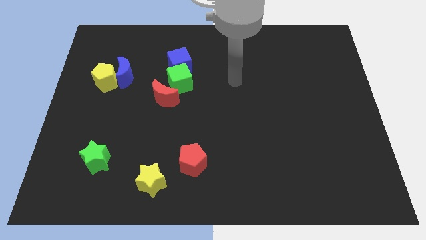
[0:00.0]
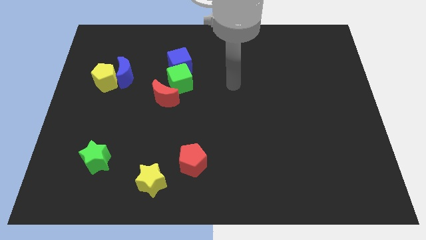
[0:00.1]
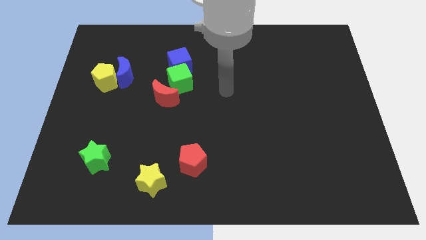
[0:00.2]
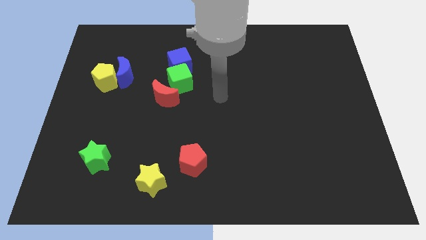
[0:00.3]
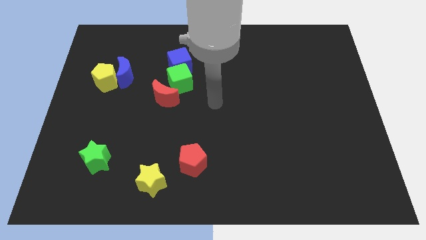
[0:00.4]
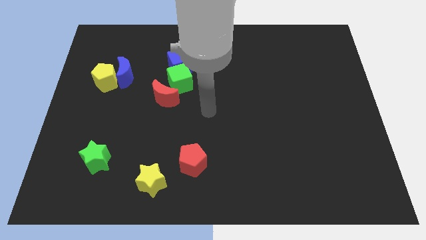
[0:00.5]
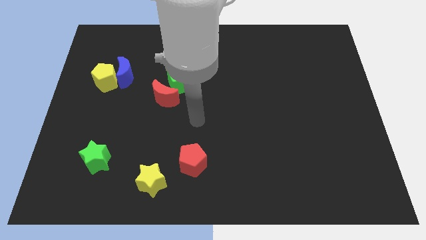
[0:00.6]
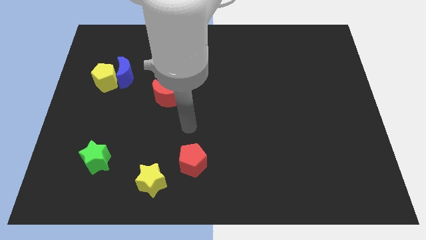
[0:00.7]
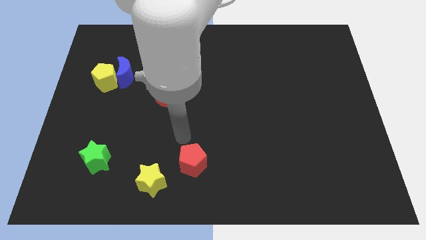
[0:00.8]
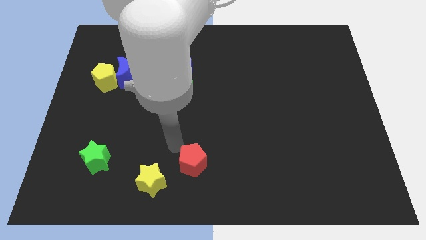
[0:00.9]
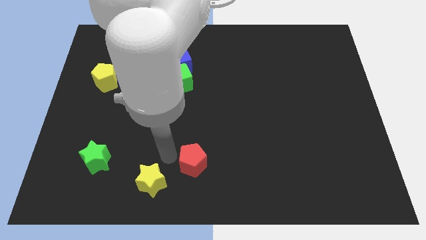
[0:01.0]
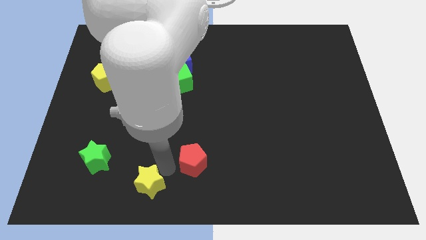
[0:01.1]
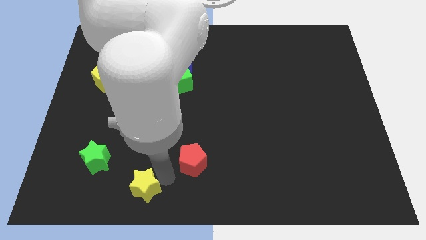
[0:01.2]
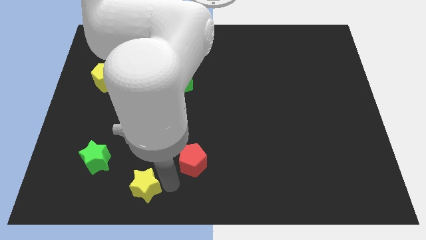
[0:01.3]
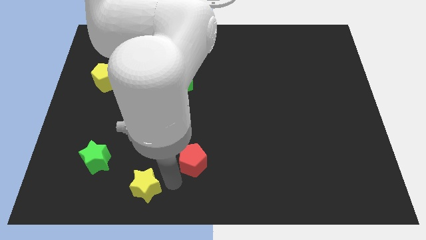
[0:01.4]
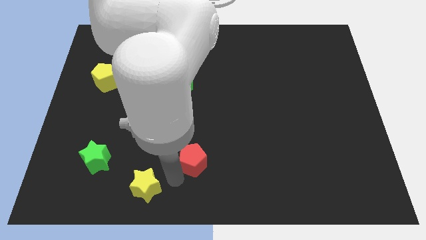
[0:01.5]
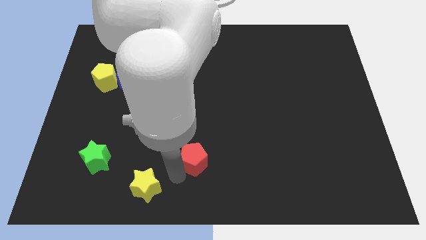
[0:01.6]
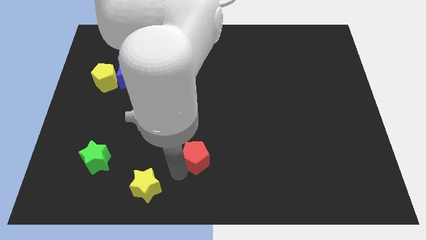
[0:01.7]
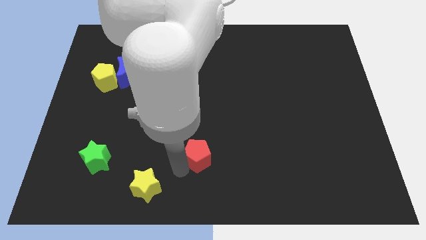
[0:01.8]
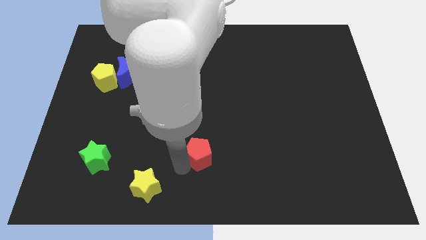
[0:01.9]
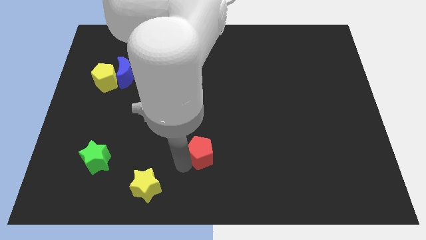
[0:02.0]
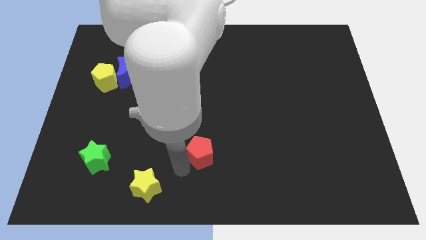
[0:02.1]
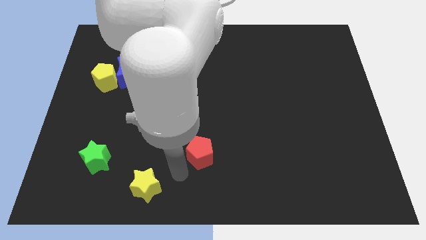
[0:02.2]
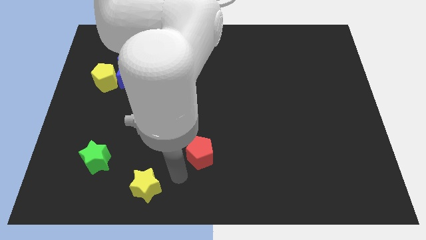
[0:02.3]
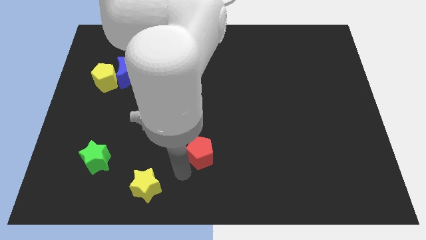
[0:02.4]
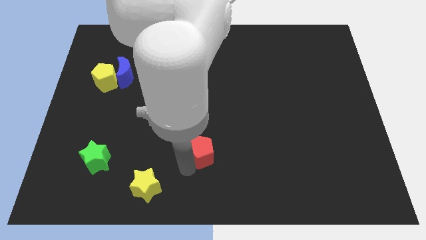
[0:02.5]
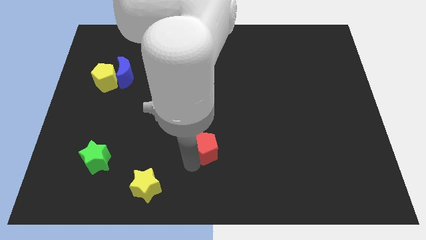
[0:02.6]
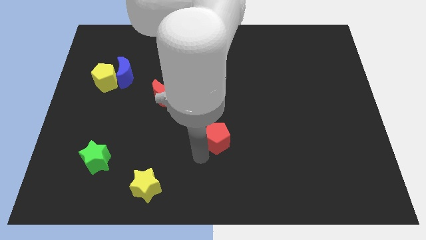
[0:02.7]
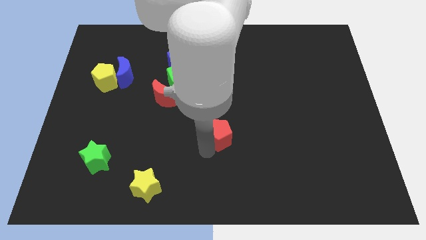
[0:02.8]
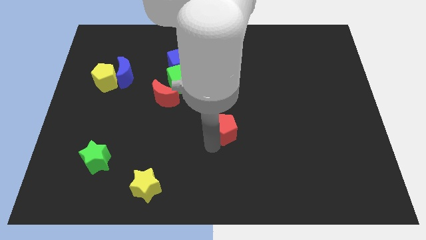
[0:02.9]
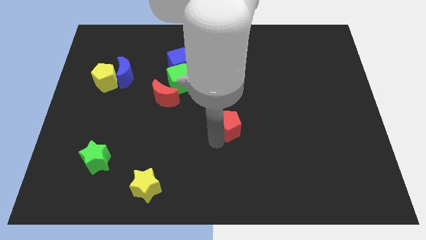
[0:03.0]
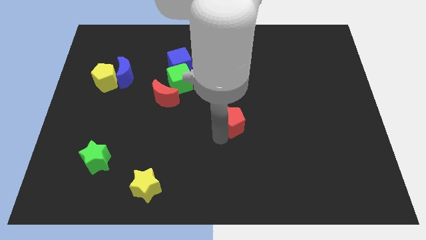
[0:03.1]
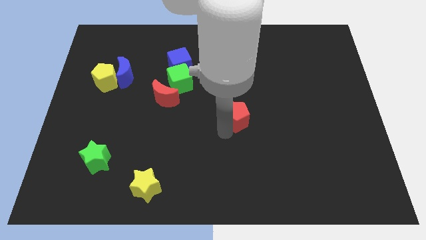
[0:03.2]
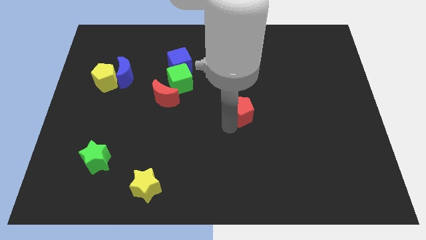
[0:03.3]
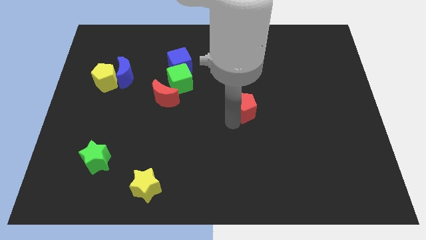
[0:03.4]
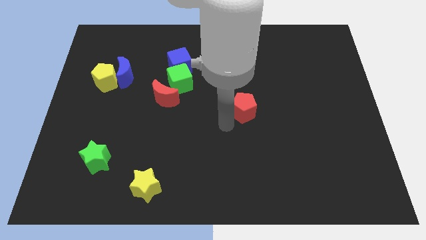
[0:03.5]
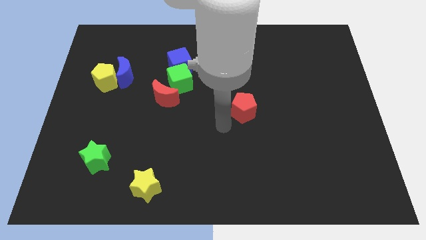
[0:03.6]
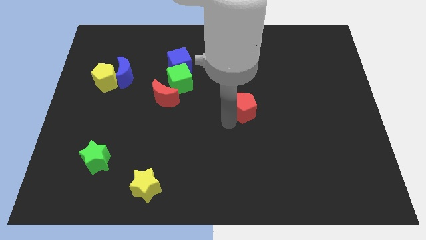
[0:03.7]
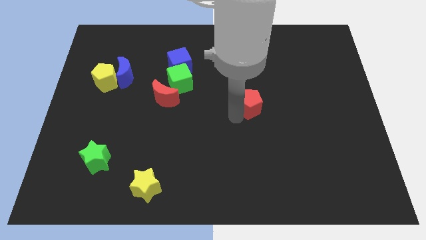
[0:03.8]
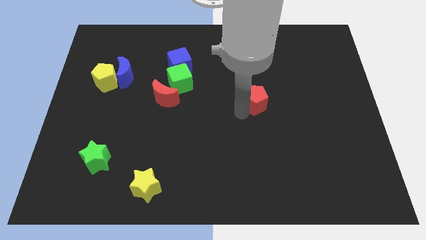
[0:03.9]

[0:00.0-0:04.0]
slide the red pentagon up and right diagonally

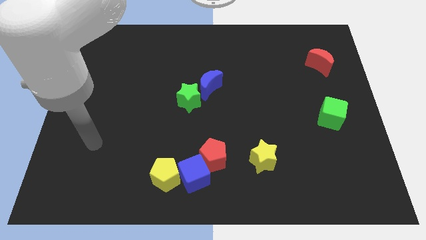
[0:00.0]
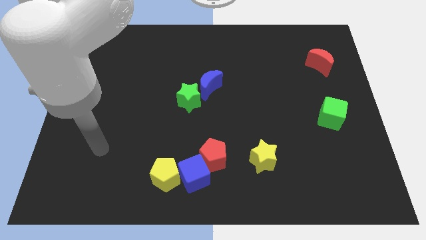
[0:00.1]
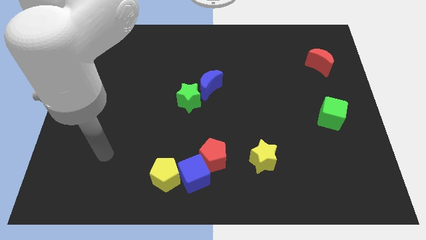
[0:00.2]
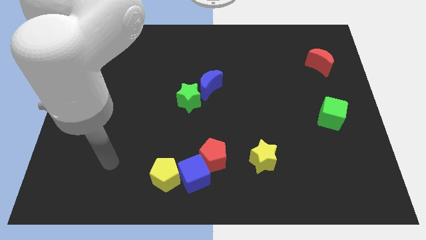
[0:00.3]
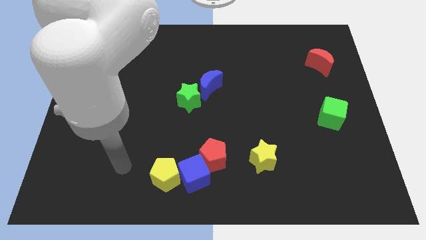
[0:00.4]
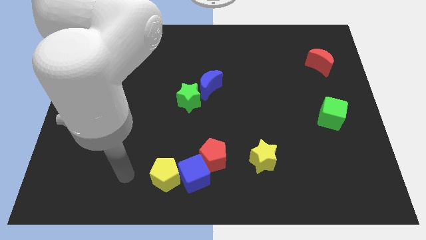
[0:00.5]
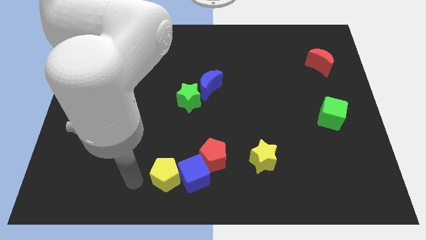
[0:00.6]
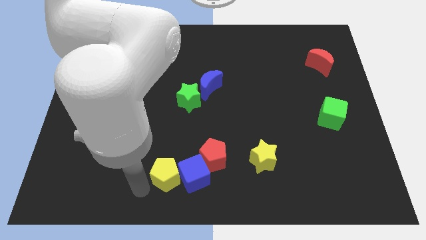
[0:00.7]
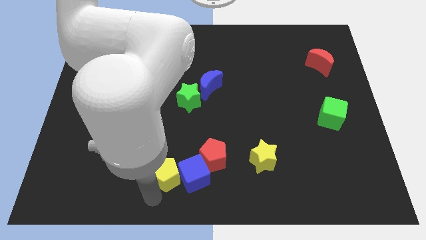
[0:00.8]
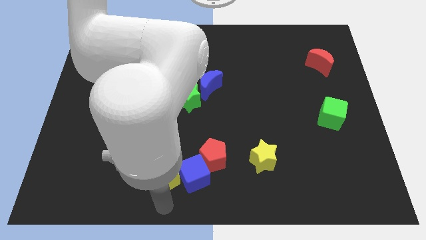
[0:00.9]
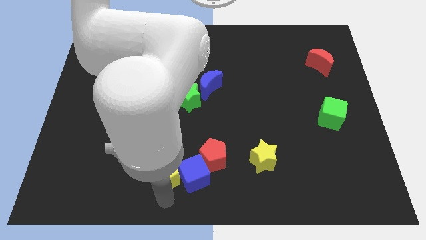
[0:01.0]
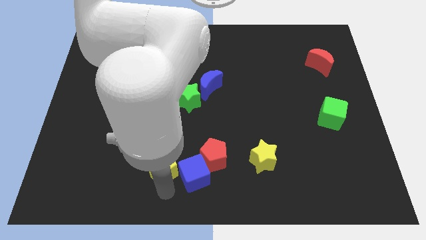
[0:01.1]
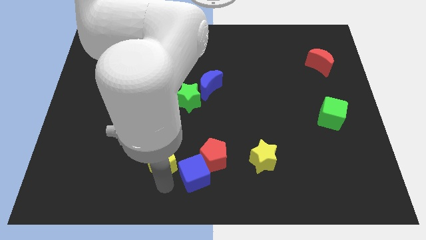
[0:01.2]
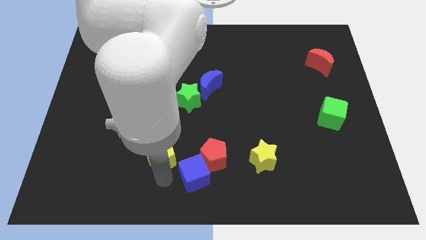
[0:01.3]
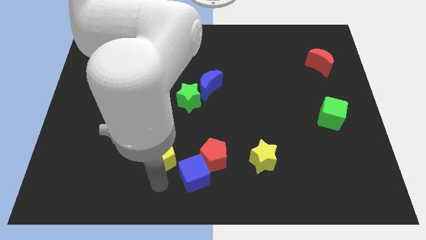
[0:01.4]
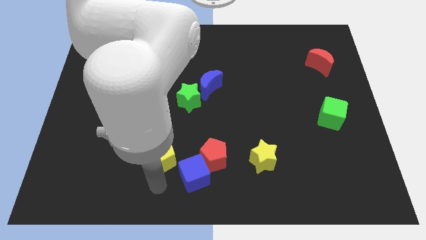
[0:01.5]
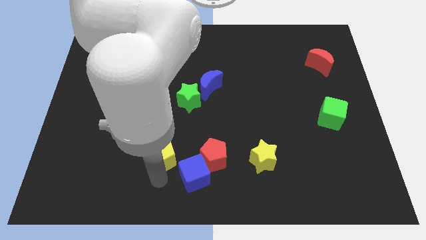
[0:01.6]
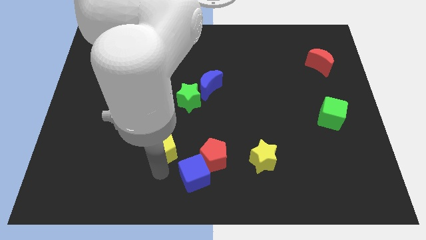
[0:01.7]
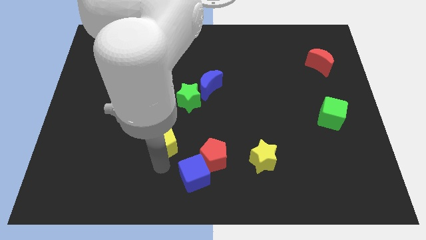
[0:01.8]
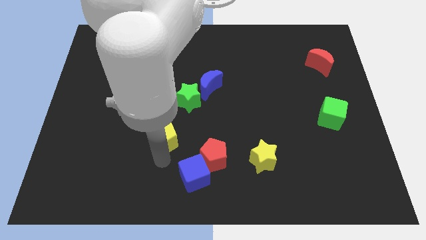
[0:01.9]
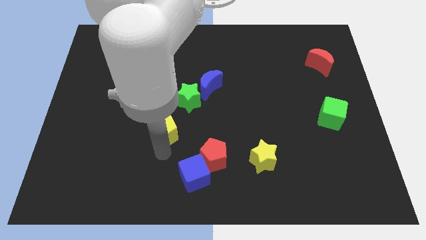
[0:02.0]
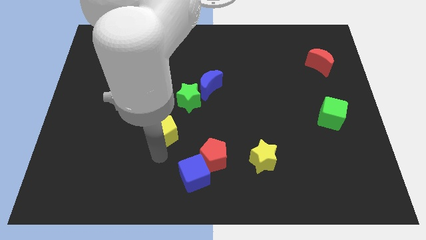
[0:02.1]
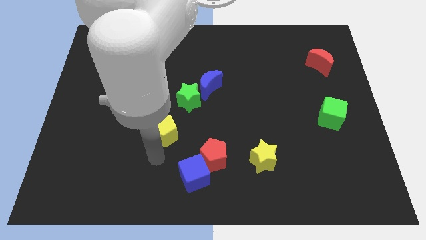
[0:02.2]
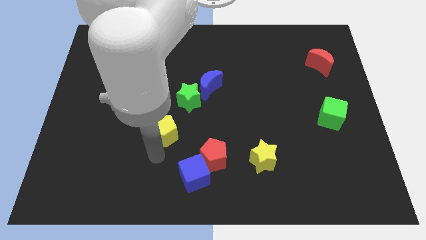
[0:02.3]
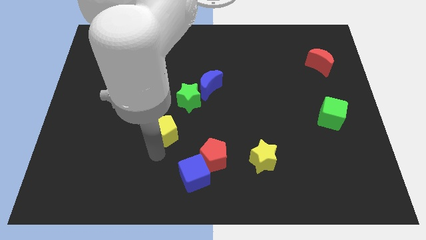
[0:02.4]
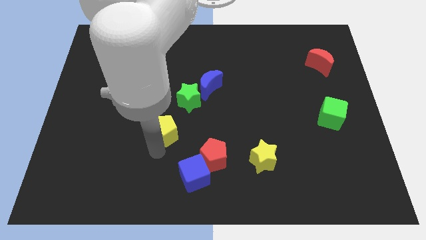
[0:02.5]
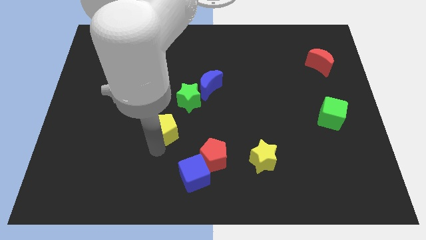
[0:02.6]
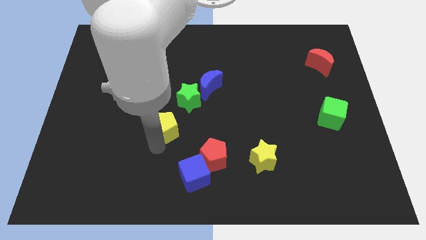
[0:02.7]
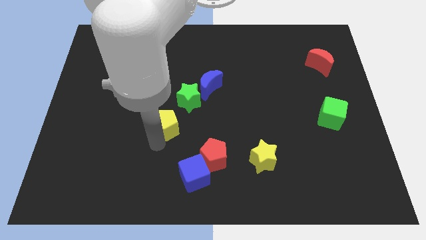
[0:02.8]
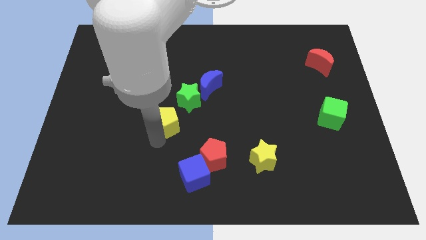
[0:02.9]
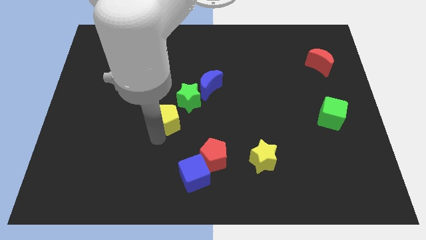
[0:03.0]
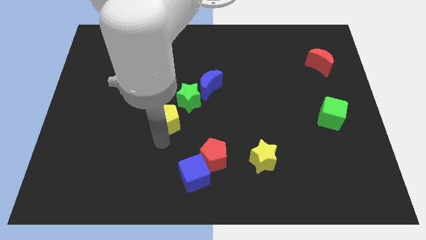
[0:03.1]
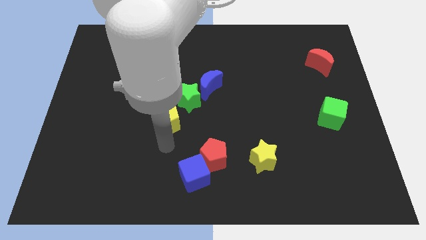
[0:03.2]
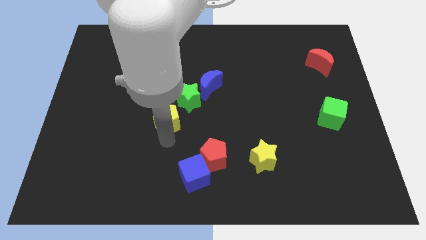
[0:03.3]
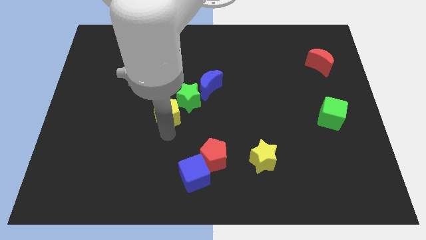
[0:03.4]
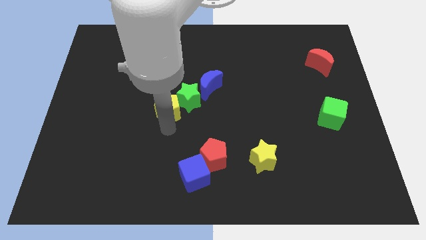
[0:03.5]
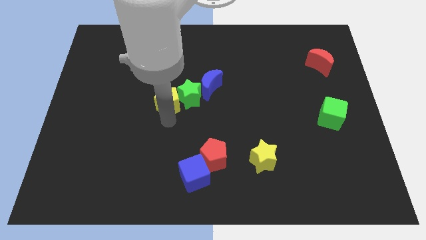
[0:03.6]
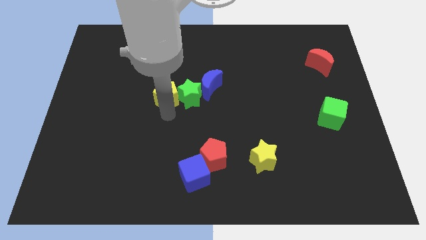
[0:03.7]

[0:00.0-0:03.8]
slide the yellow pentagon upwards

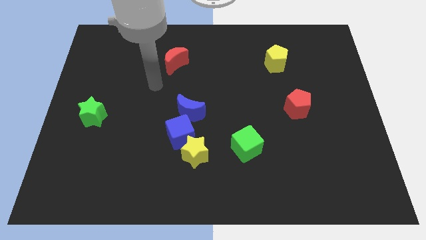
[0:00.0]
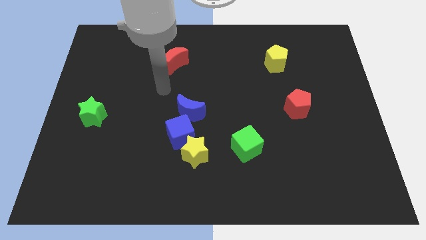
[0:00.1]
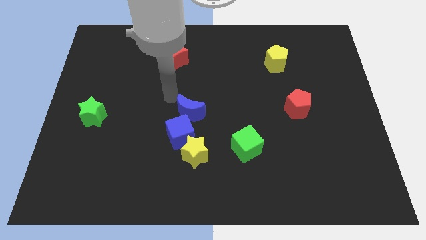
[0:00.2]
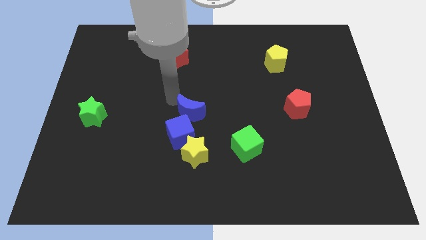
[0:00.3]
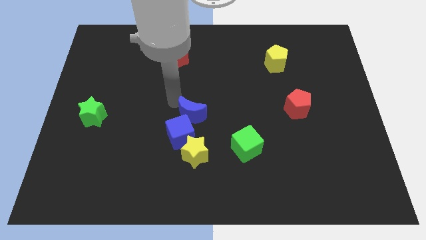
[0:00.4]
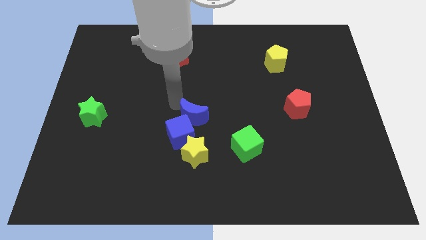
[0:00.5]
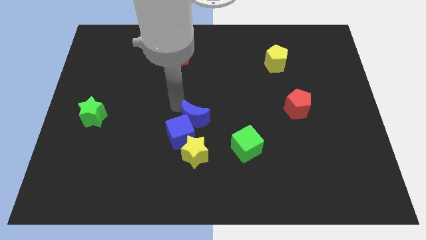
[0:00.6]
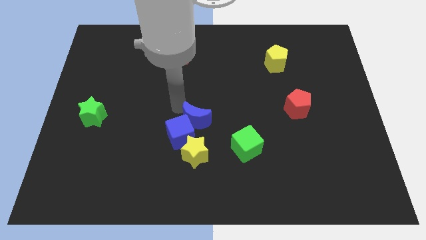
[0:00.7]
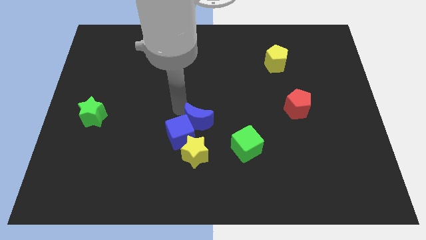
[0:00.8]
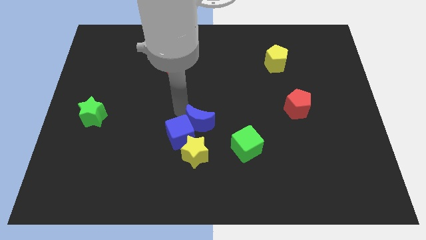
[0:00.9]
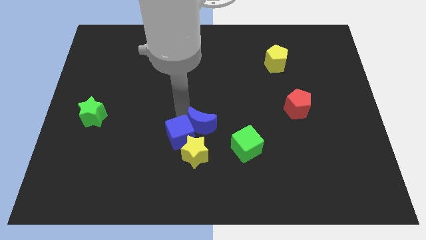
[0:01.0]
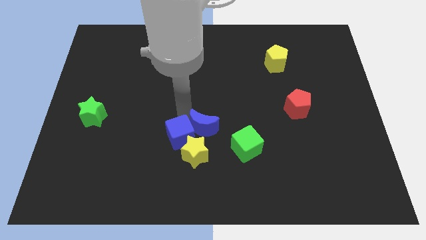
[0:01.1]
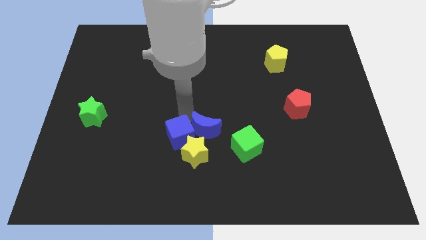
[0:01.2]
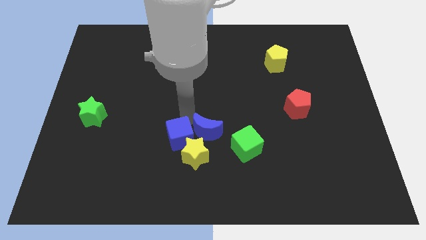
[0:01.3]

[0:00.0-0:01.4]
slide the blue moon a little down and to the right diagonally
